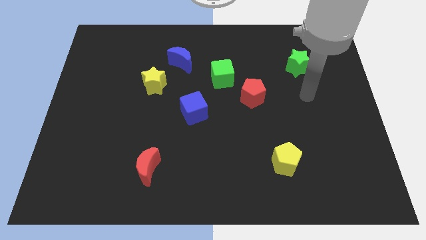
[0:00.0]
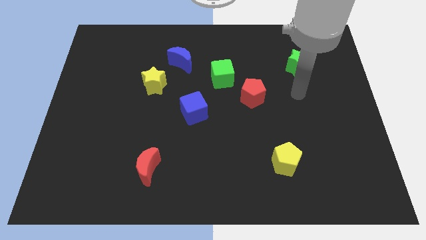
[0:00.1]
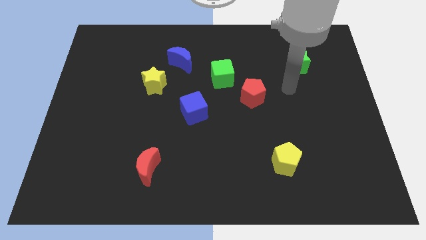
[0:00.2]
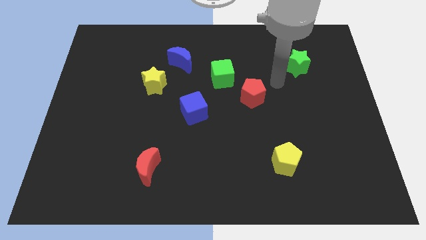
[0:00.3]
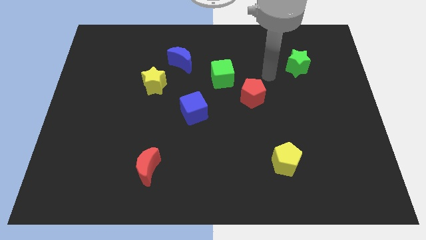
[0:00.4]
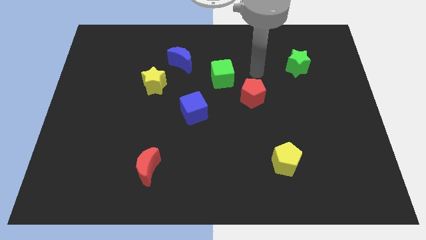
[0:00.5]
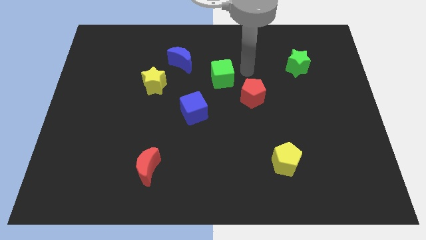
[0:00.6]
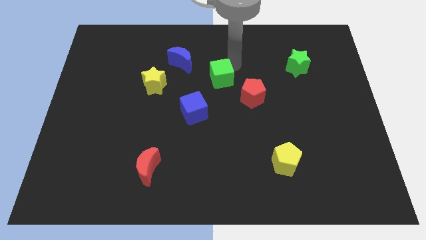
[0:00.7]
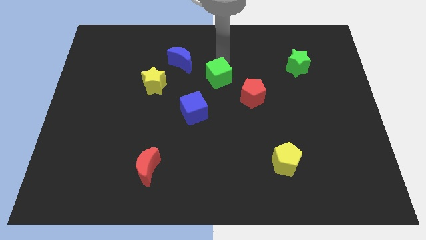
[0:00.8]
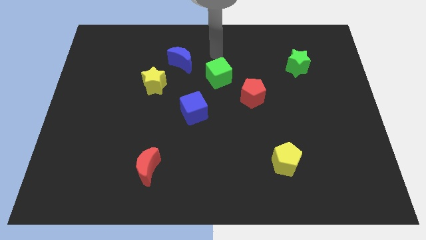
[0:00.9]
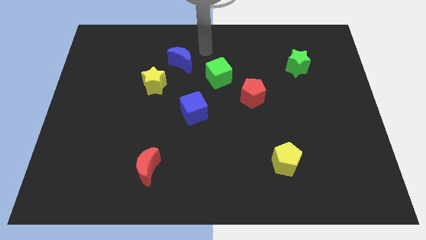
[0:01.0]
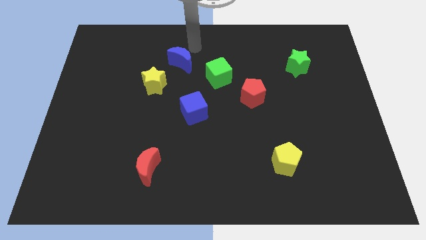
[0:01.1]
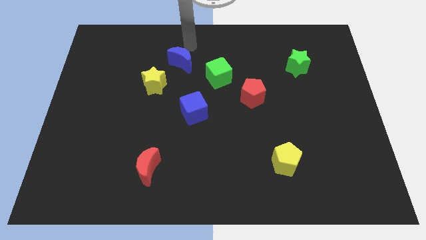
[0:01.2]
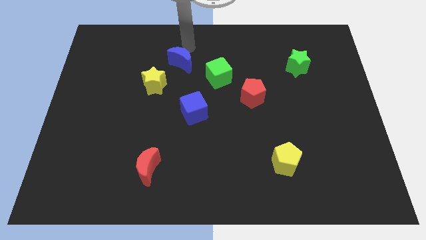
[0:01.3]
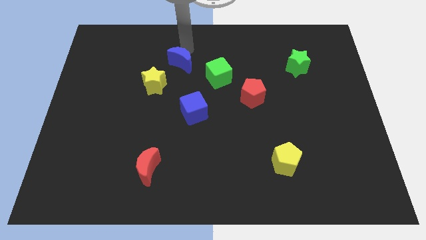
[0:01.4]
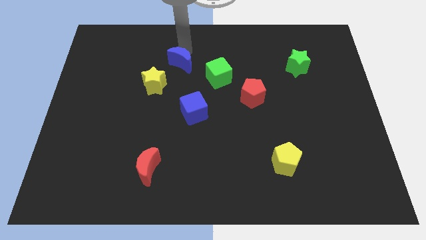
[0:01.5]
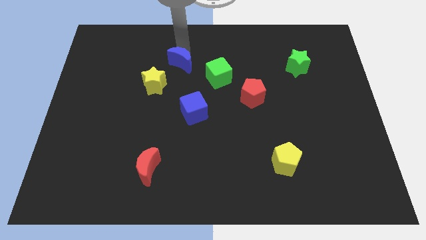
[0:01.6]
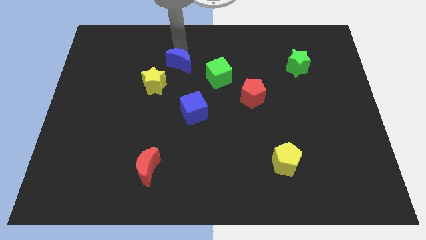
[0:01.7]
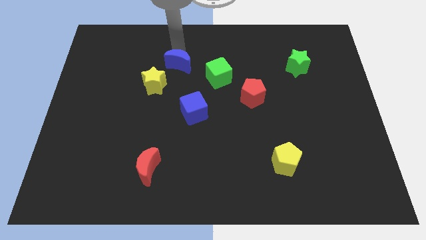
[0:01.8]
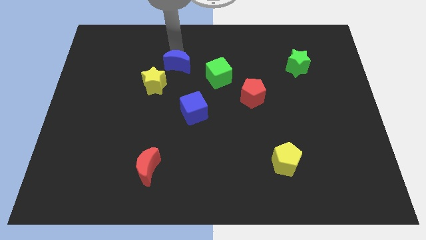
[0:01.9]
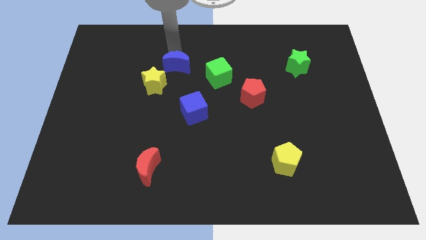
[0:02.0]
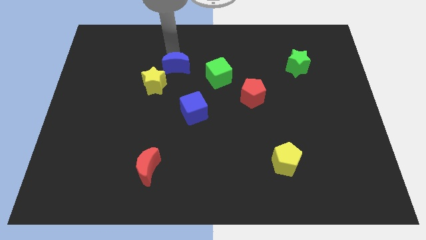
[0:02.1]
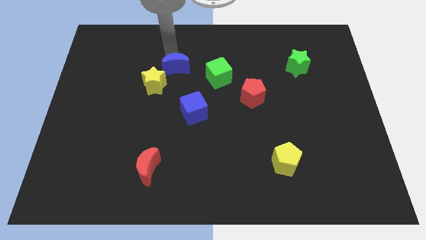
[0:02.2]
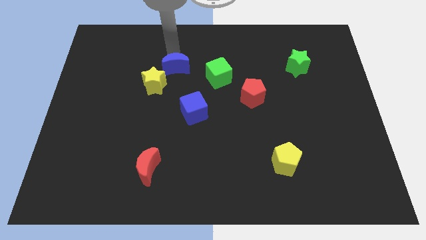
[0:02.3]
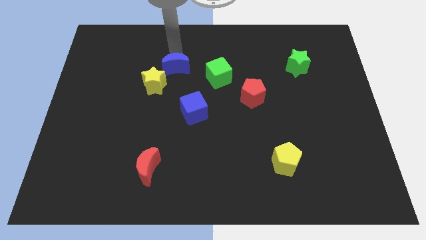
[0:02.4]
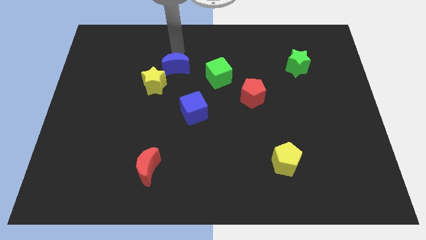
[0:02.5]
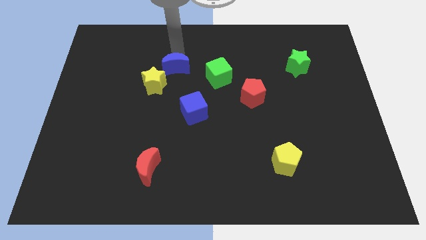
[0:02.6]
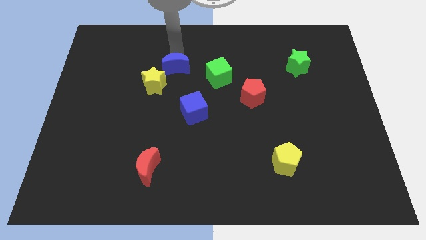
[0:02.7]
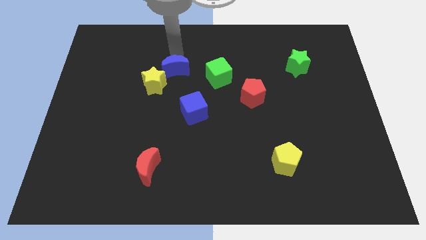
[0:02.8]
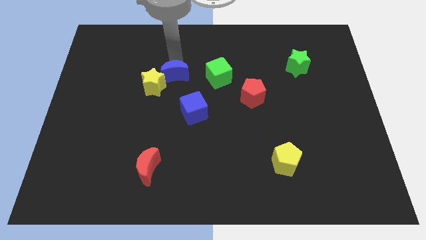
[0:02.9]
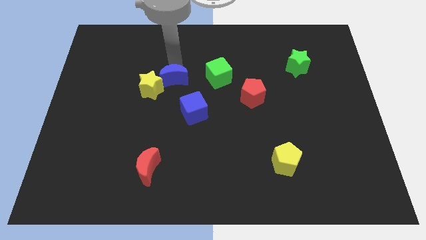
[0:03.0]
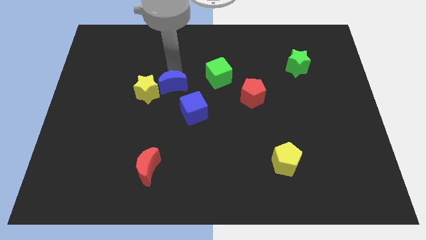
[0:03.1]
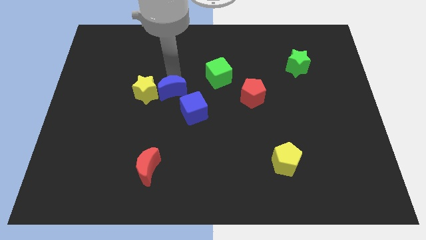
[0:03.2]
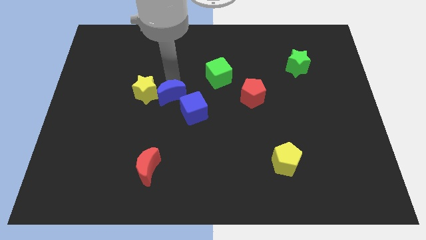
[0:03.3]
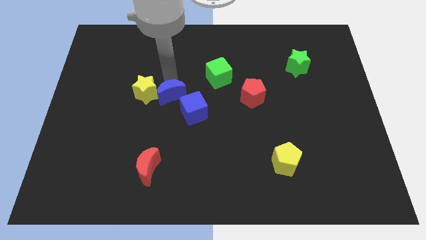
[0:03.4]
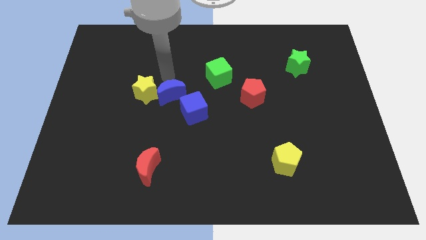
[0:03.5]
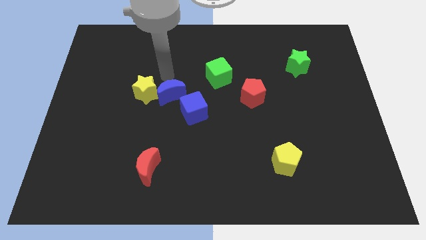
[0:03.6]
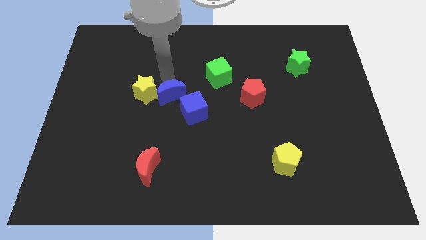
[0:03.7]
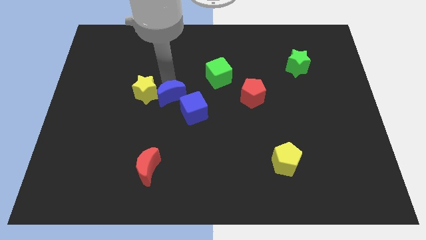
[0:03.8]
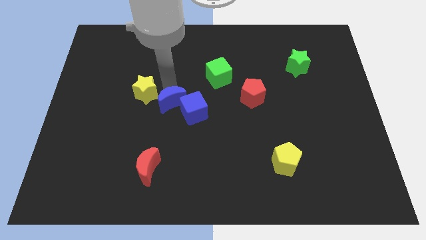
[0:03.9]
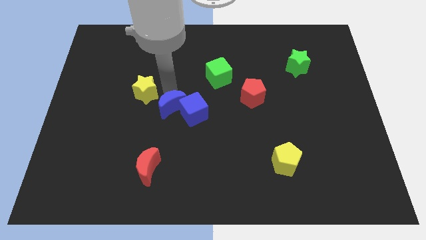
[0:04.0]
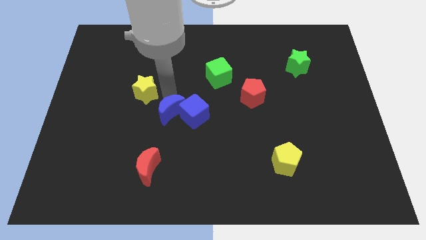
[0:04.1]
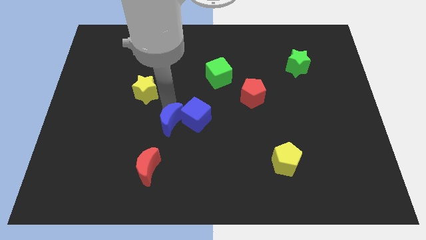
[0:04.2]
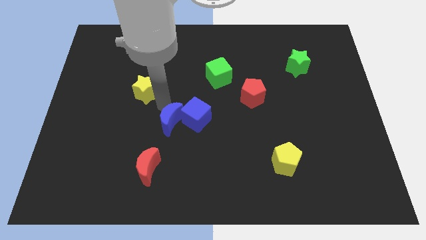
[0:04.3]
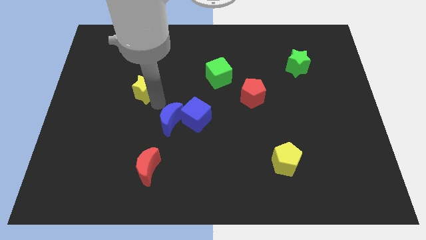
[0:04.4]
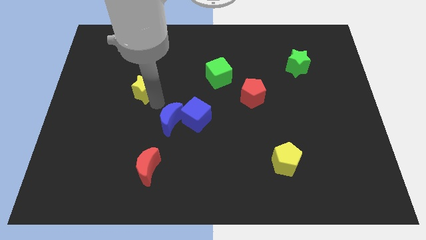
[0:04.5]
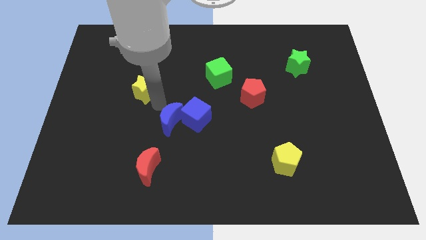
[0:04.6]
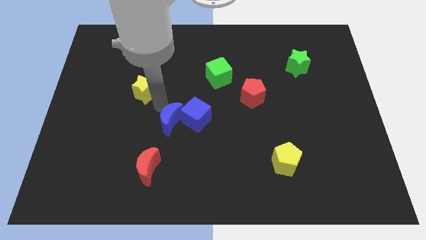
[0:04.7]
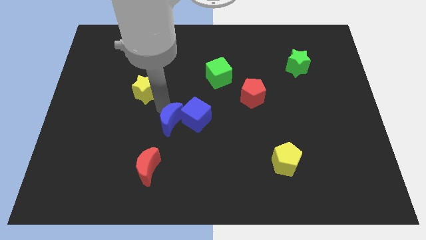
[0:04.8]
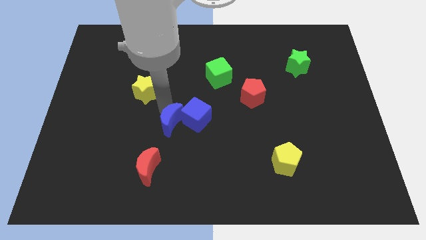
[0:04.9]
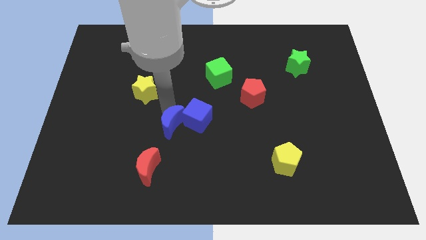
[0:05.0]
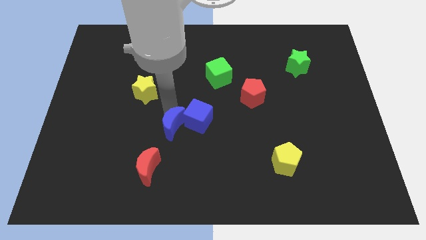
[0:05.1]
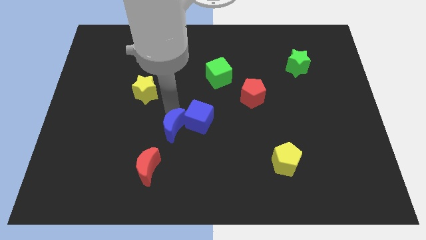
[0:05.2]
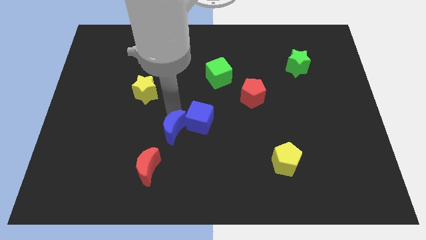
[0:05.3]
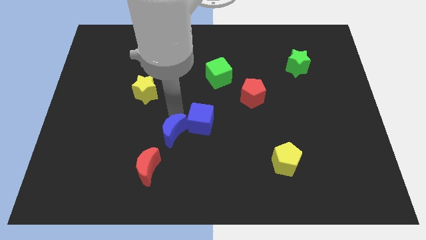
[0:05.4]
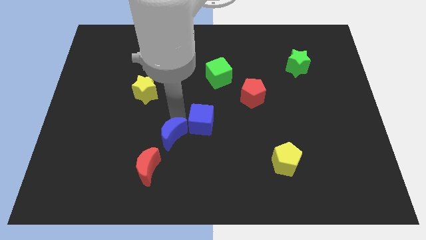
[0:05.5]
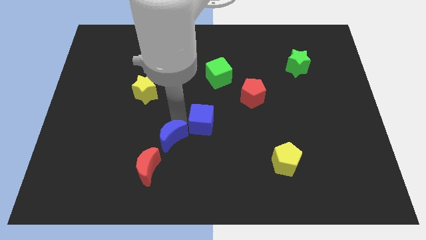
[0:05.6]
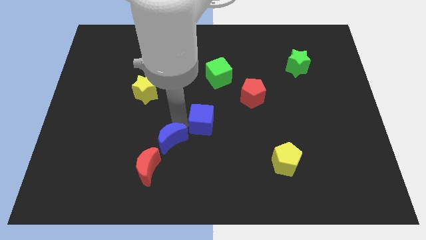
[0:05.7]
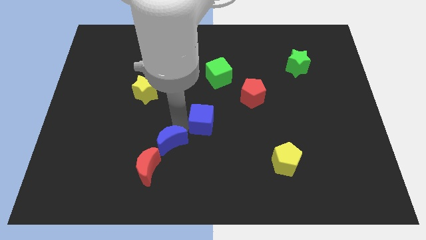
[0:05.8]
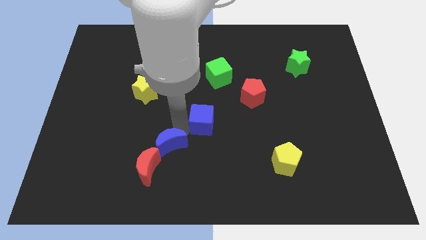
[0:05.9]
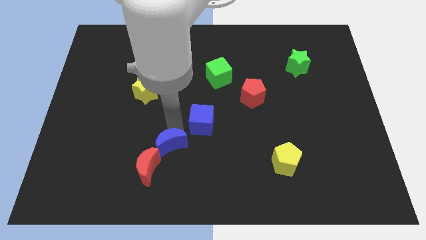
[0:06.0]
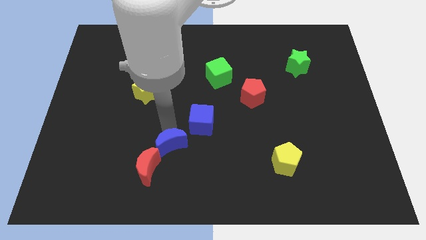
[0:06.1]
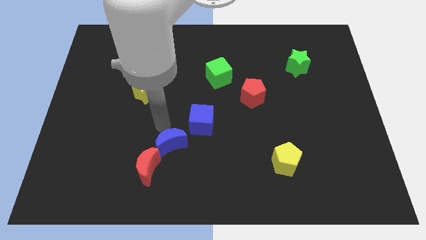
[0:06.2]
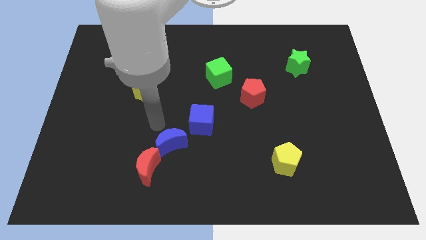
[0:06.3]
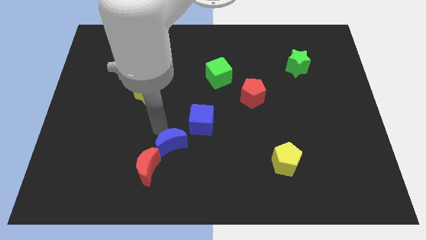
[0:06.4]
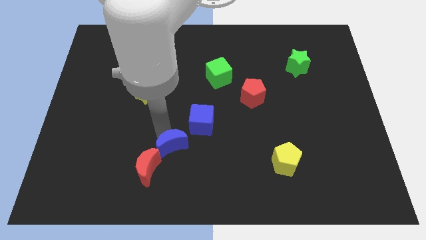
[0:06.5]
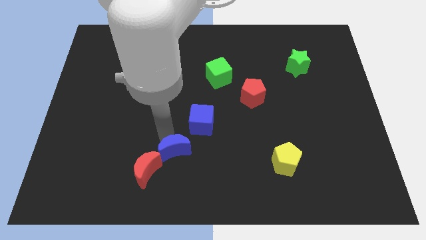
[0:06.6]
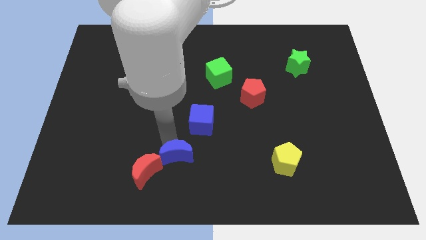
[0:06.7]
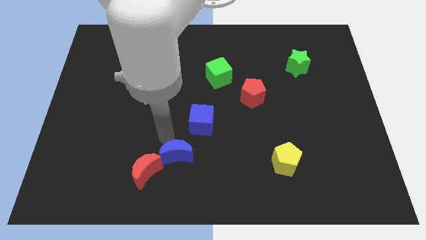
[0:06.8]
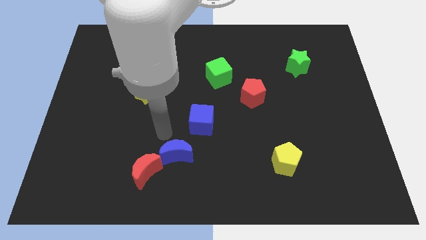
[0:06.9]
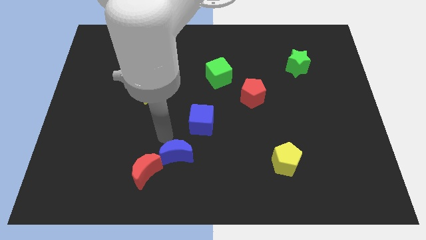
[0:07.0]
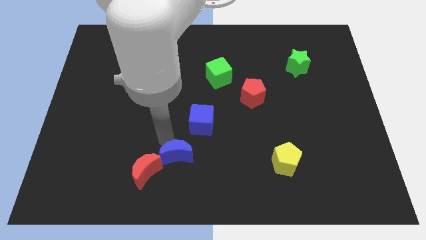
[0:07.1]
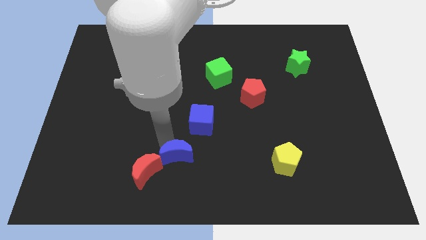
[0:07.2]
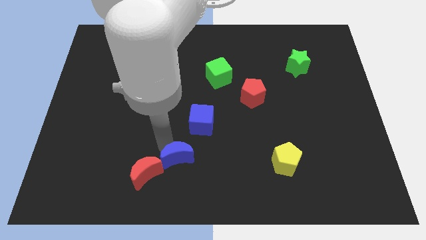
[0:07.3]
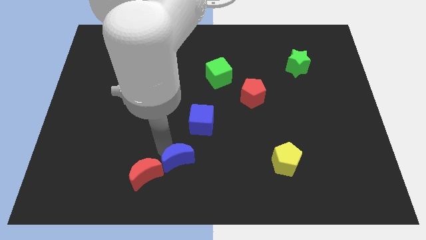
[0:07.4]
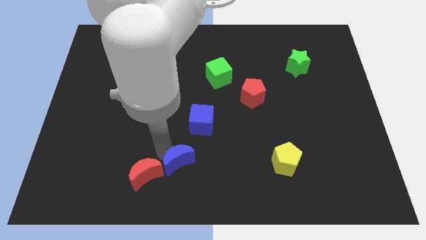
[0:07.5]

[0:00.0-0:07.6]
move the blue moon to the bottom side
